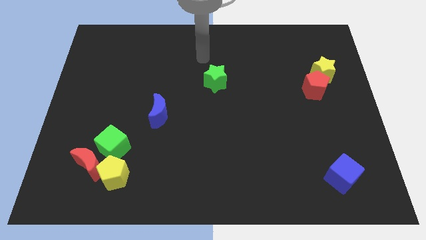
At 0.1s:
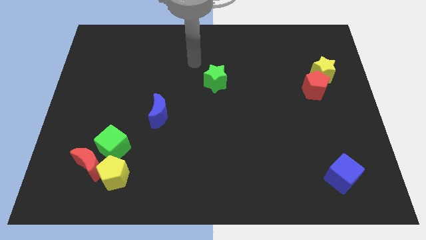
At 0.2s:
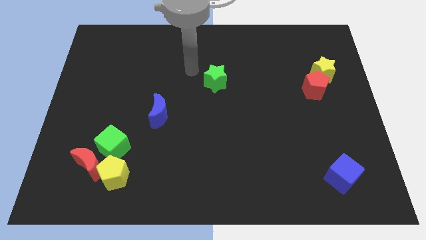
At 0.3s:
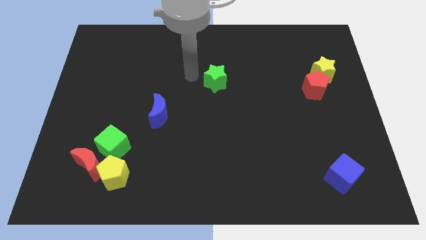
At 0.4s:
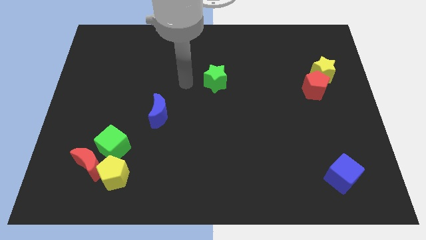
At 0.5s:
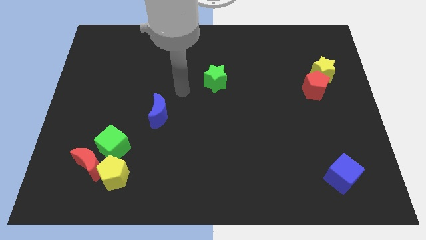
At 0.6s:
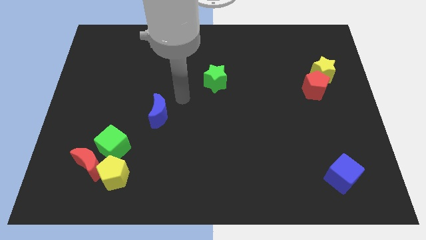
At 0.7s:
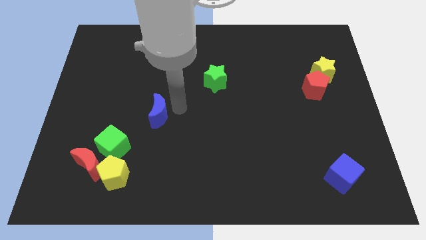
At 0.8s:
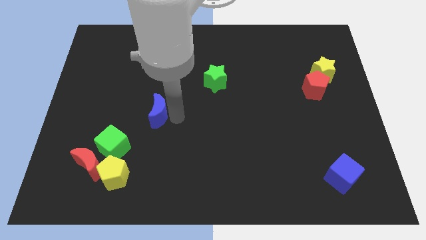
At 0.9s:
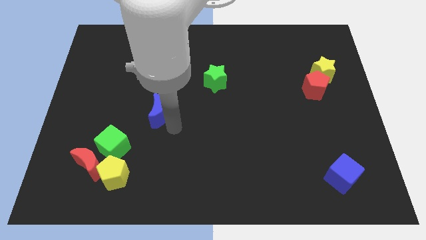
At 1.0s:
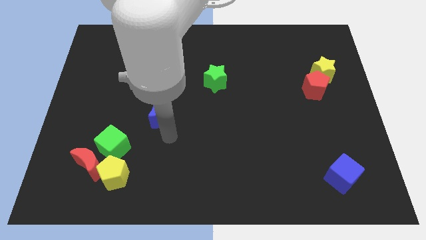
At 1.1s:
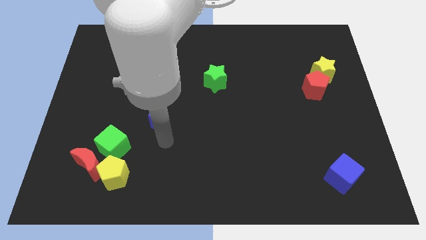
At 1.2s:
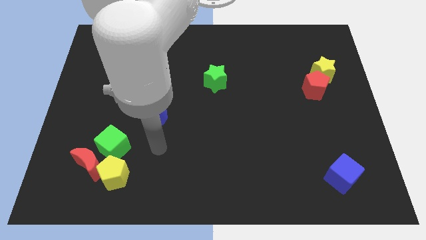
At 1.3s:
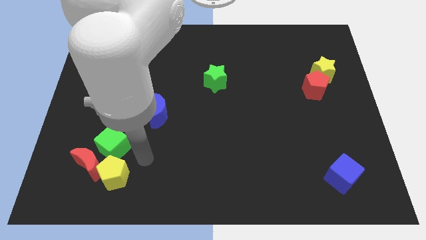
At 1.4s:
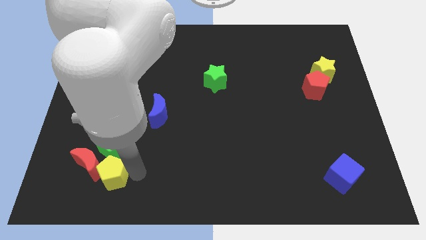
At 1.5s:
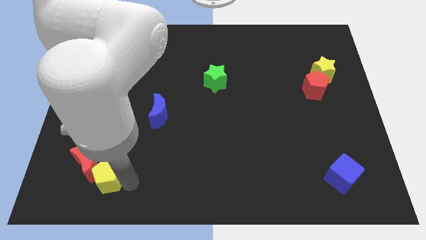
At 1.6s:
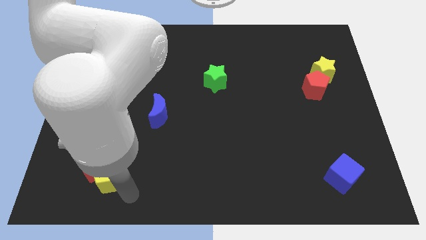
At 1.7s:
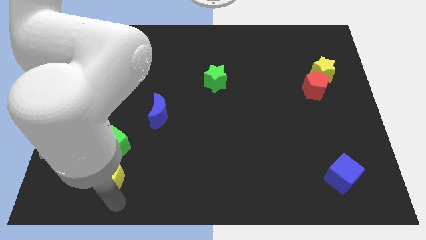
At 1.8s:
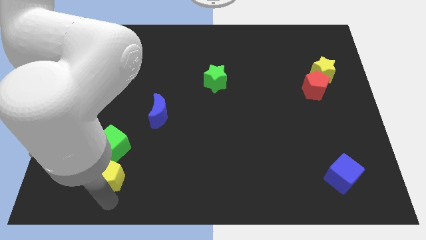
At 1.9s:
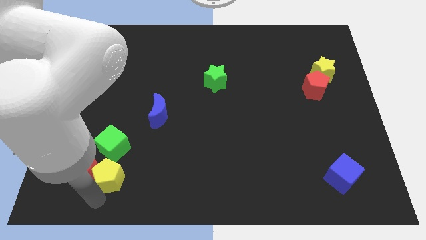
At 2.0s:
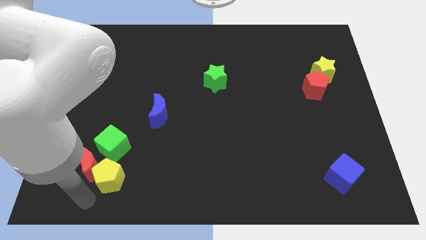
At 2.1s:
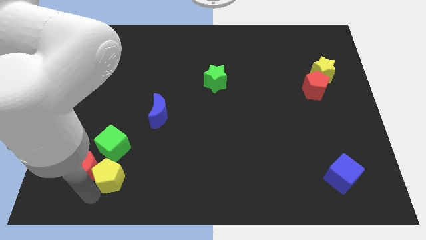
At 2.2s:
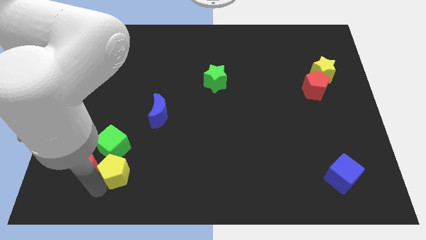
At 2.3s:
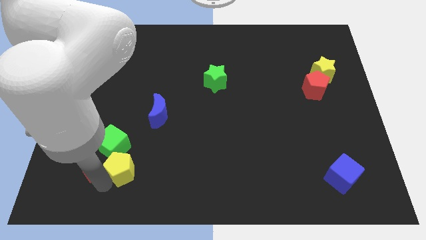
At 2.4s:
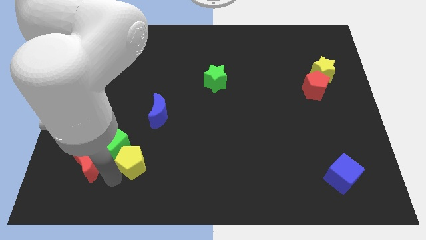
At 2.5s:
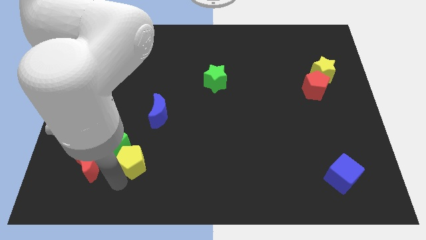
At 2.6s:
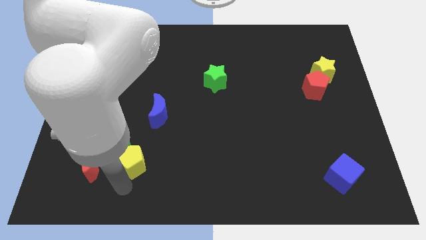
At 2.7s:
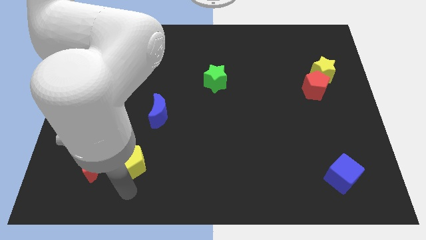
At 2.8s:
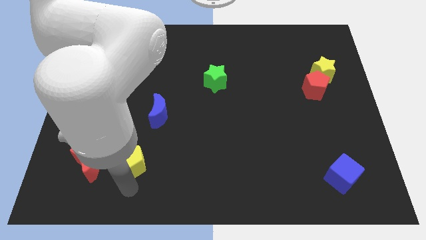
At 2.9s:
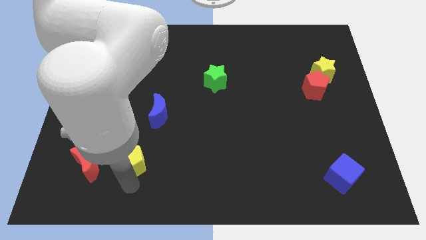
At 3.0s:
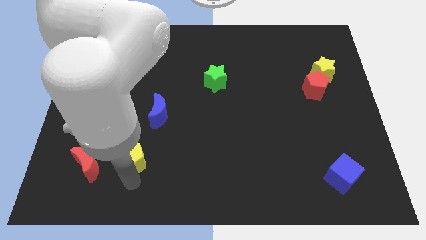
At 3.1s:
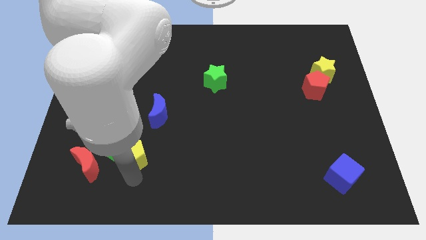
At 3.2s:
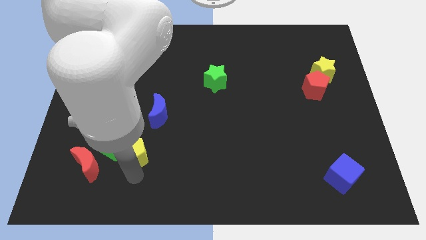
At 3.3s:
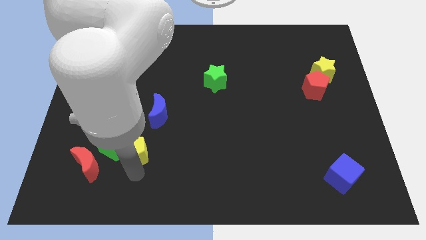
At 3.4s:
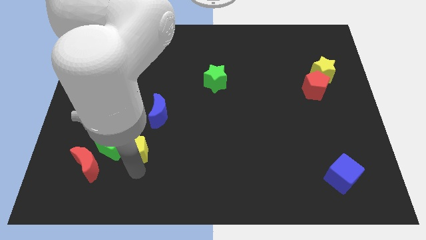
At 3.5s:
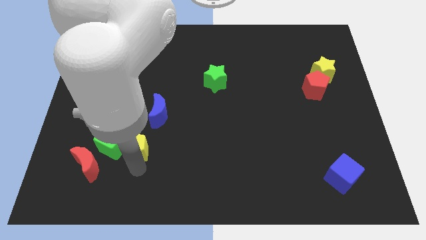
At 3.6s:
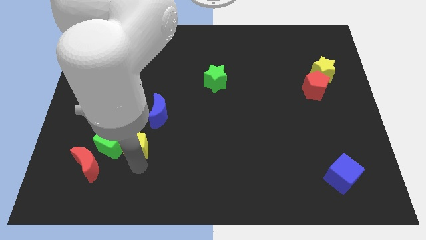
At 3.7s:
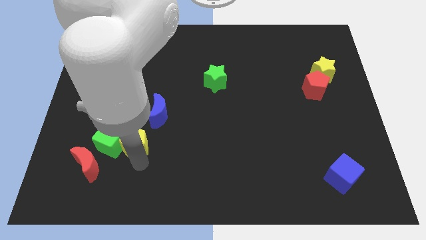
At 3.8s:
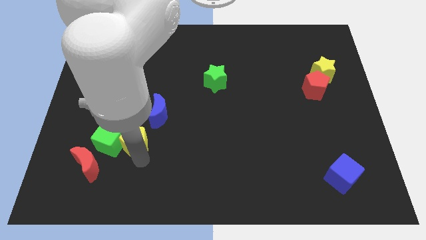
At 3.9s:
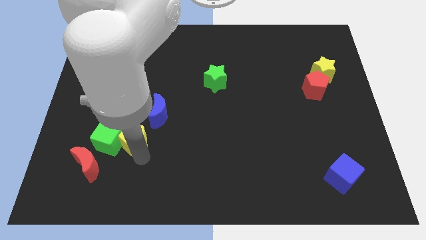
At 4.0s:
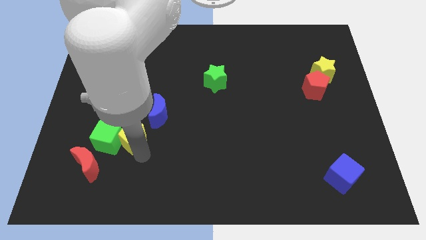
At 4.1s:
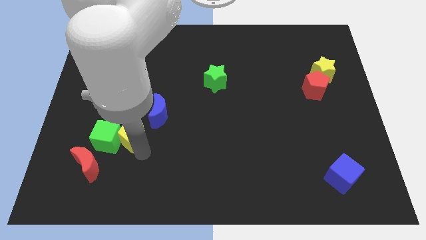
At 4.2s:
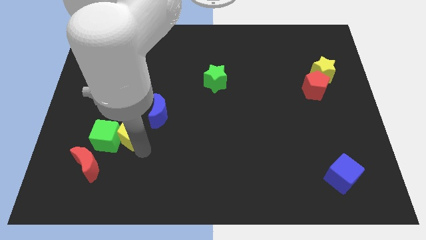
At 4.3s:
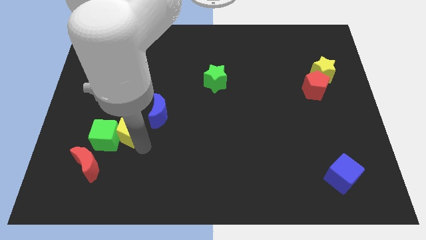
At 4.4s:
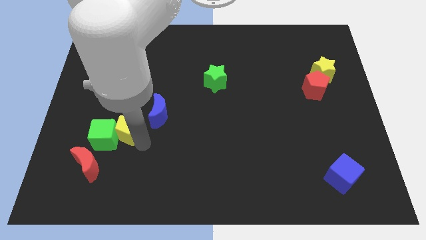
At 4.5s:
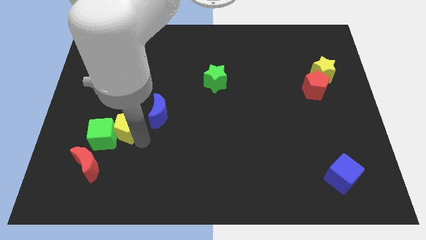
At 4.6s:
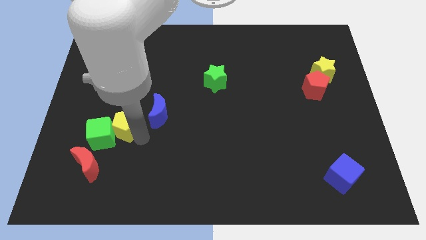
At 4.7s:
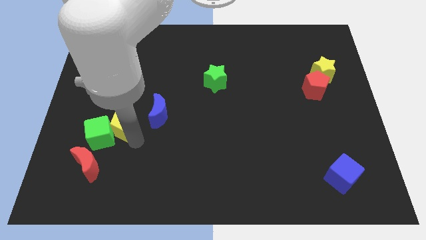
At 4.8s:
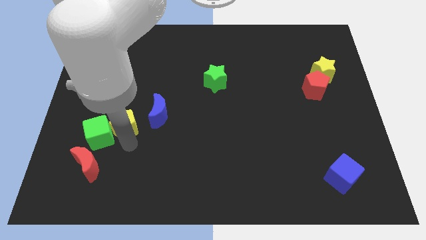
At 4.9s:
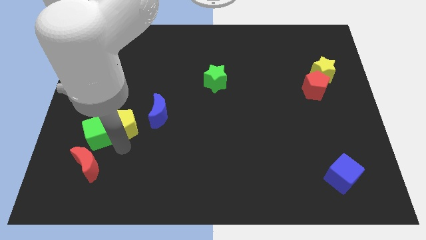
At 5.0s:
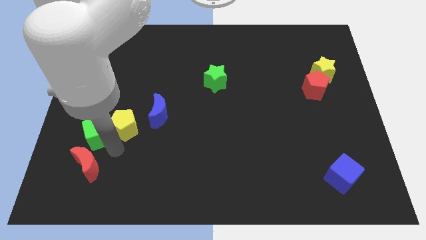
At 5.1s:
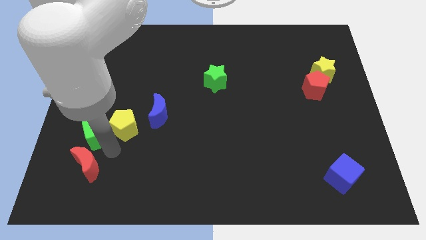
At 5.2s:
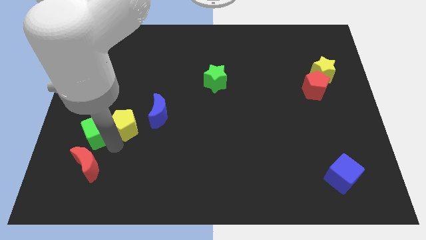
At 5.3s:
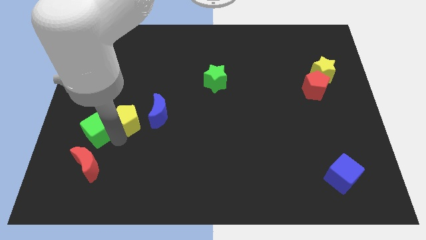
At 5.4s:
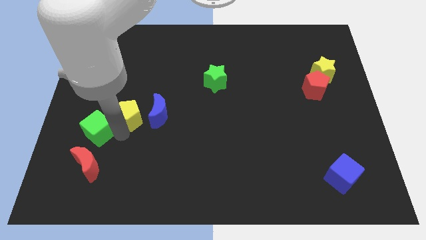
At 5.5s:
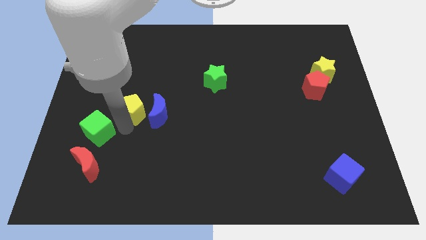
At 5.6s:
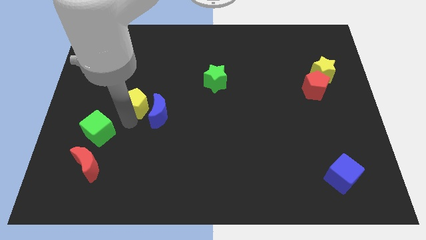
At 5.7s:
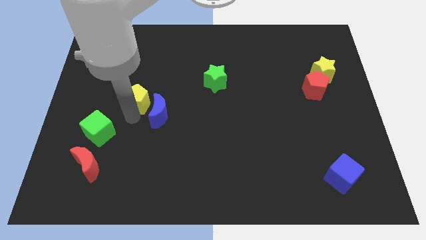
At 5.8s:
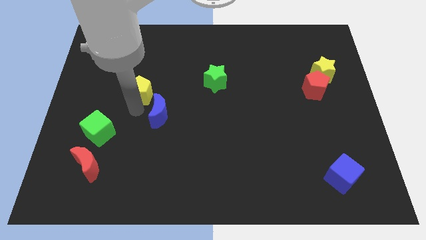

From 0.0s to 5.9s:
push the yellow pentagon up

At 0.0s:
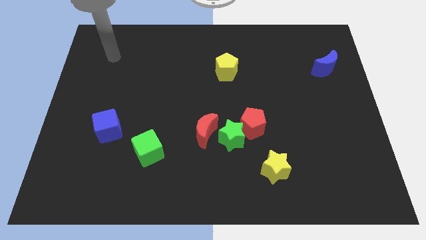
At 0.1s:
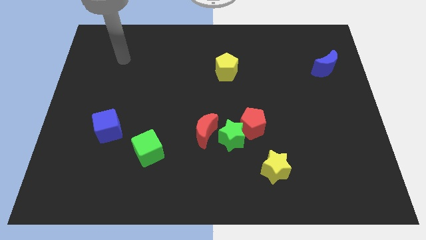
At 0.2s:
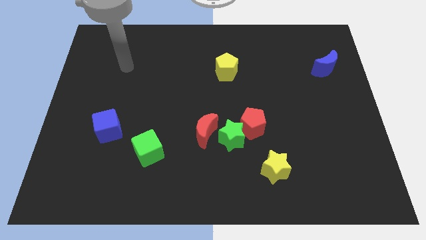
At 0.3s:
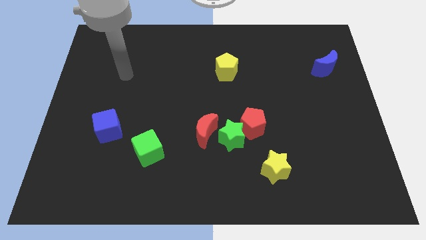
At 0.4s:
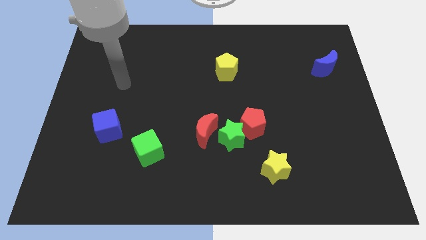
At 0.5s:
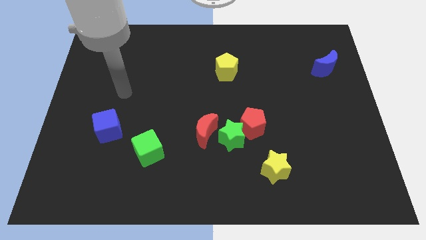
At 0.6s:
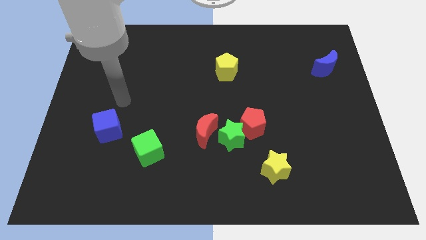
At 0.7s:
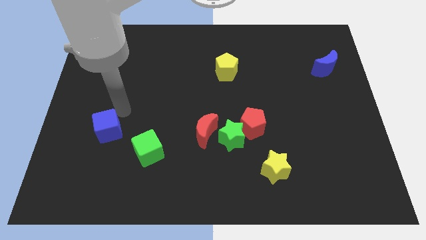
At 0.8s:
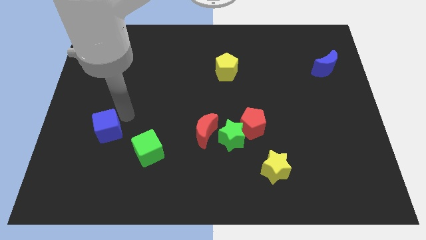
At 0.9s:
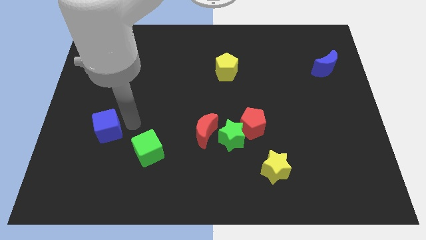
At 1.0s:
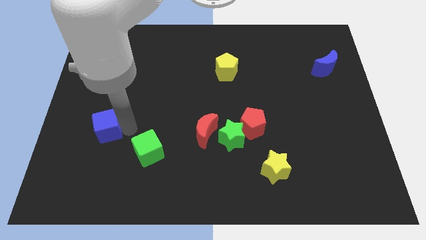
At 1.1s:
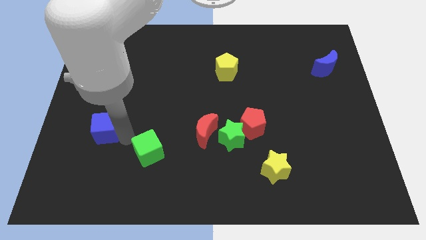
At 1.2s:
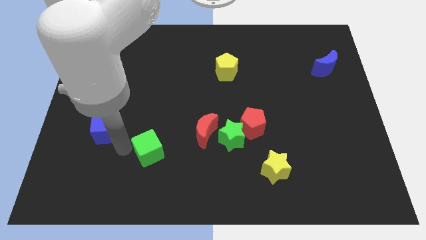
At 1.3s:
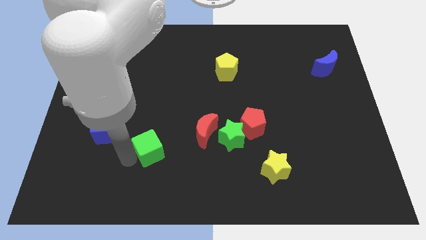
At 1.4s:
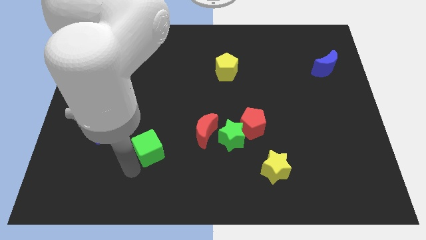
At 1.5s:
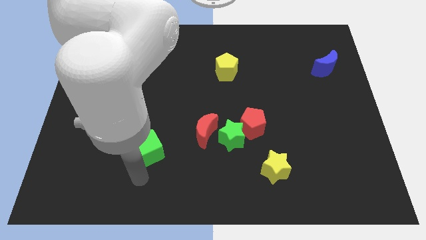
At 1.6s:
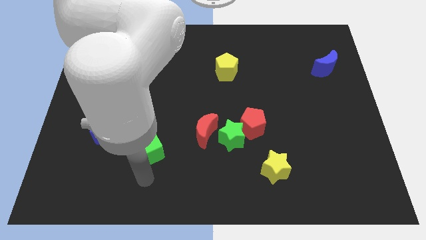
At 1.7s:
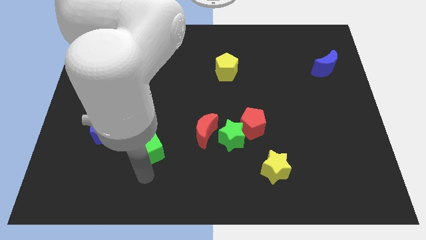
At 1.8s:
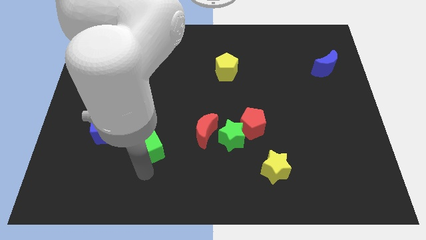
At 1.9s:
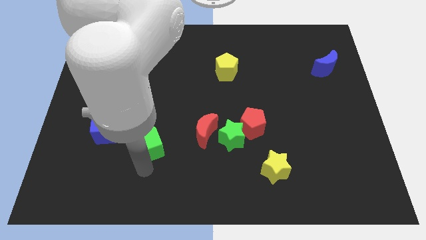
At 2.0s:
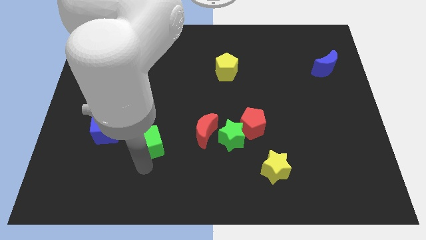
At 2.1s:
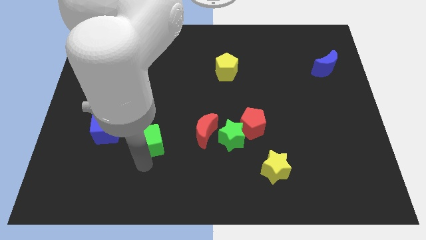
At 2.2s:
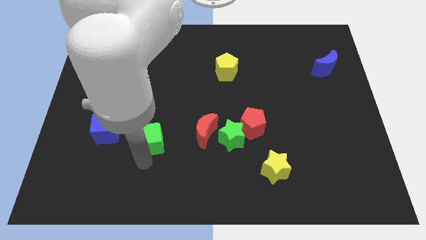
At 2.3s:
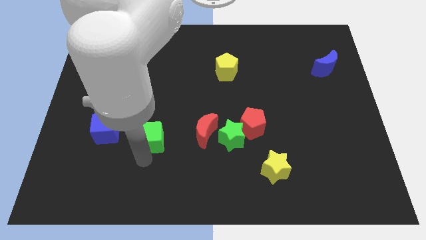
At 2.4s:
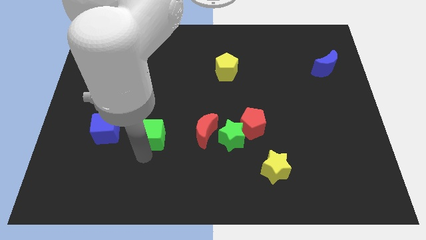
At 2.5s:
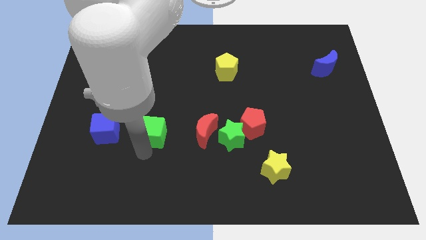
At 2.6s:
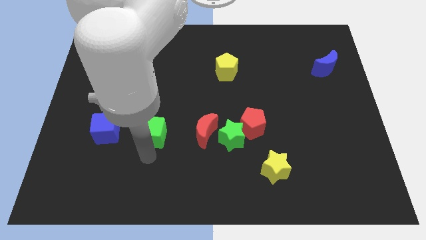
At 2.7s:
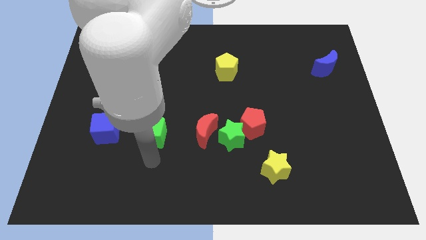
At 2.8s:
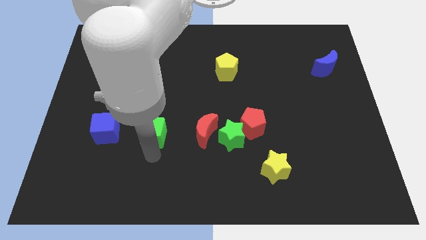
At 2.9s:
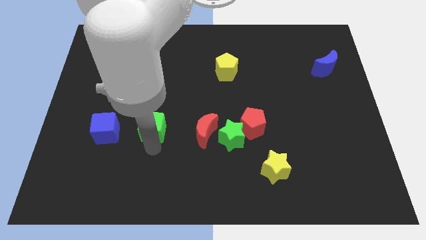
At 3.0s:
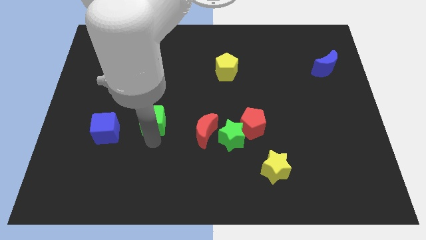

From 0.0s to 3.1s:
move the green cube up a bit
